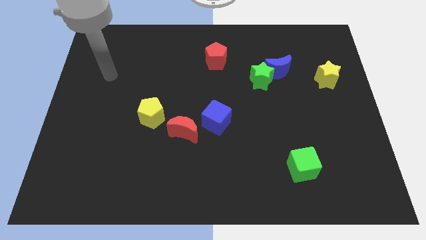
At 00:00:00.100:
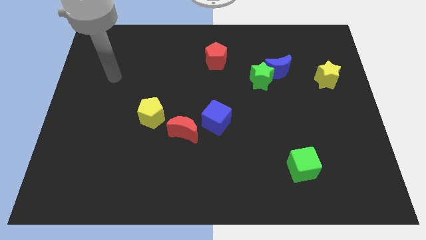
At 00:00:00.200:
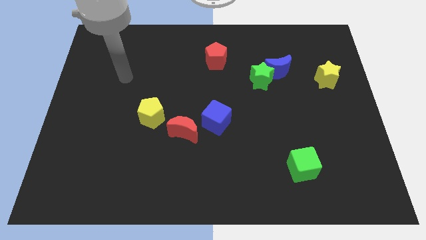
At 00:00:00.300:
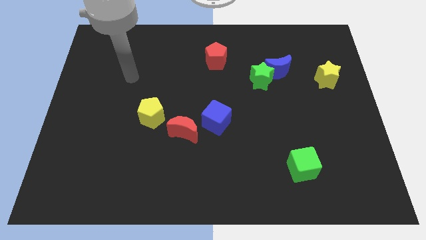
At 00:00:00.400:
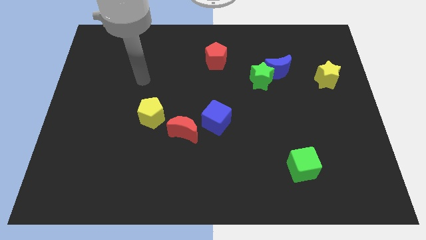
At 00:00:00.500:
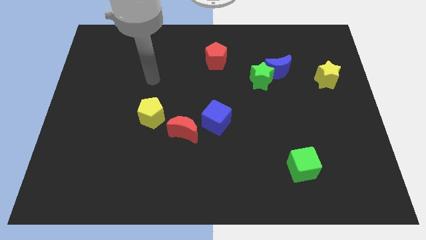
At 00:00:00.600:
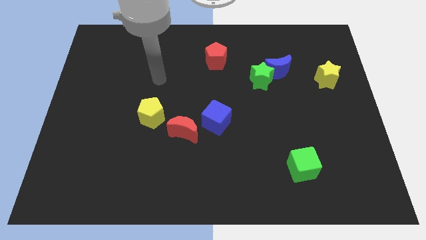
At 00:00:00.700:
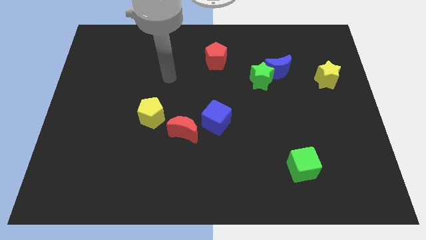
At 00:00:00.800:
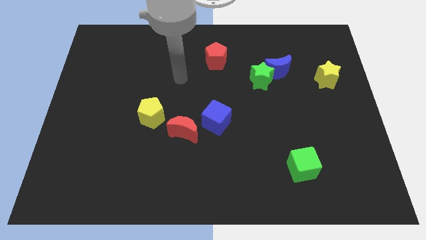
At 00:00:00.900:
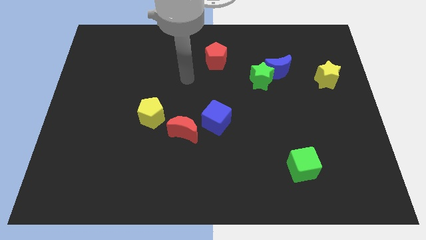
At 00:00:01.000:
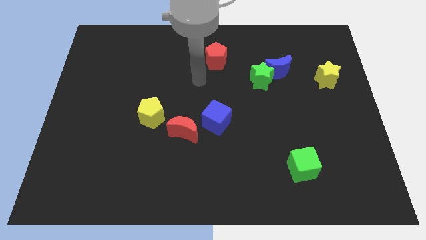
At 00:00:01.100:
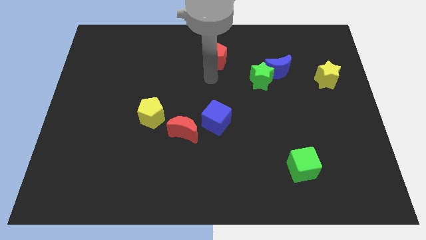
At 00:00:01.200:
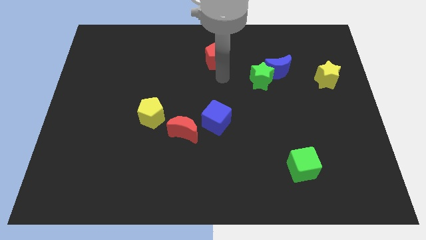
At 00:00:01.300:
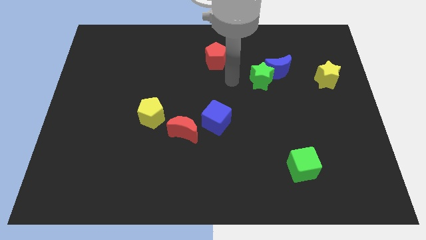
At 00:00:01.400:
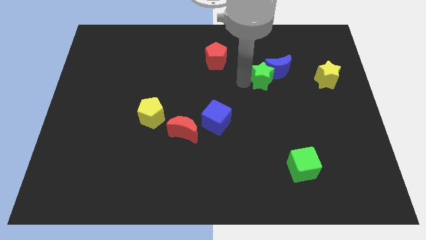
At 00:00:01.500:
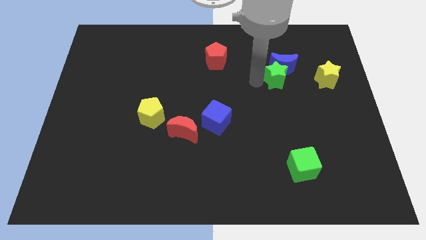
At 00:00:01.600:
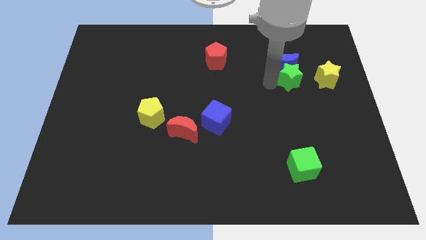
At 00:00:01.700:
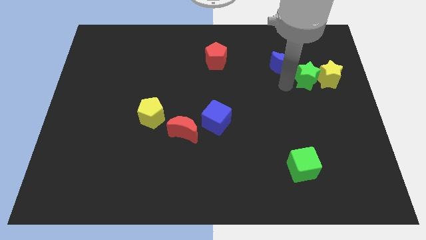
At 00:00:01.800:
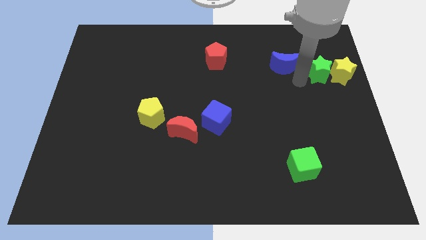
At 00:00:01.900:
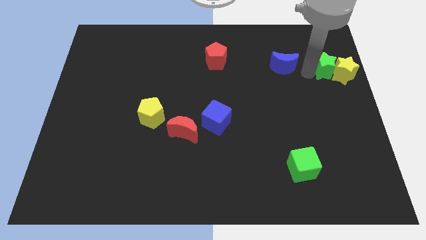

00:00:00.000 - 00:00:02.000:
pull the blue moon apart from the green star

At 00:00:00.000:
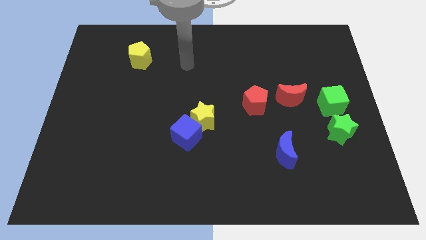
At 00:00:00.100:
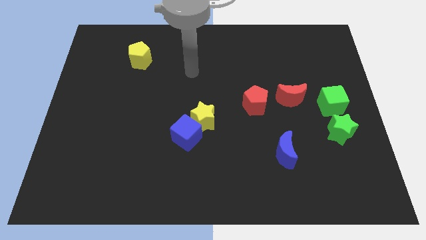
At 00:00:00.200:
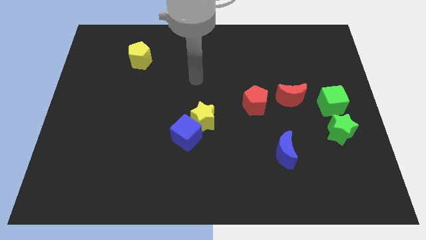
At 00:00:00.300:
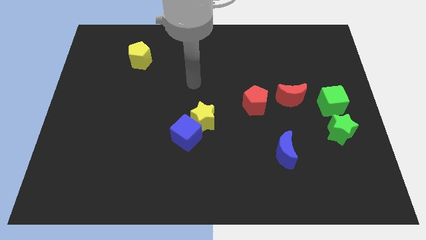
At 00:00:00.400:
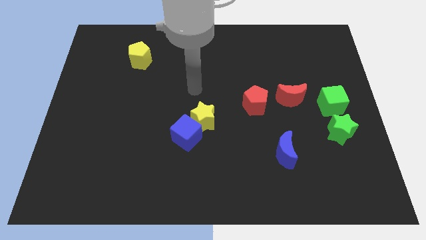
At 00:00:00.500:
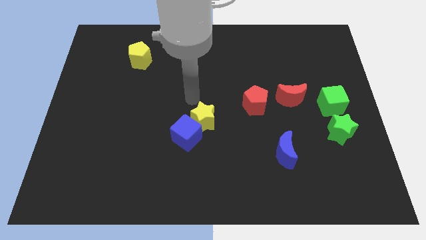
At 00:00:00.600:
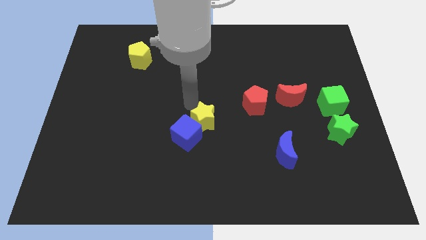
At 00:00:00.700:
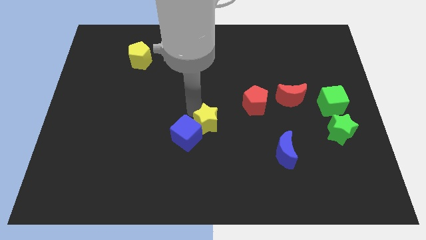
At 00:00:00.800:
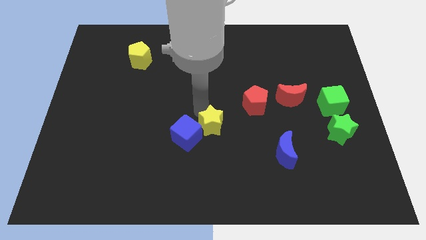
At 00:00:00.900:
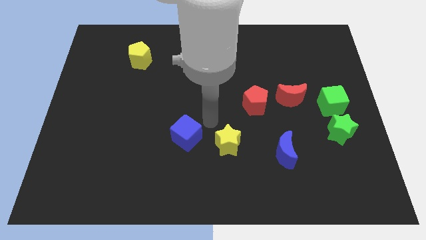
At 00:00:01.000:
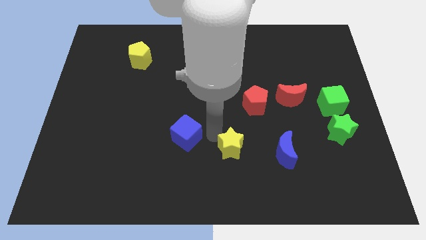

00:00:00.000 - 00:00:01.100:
move the blue cube away from the yellow star

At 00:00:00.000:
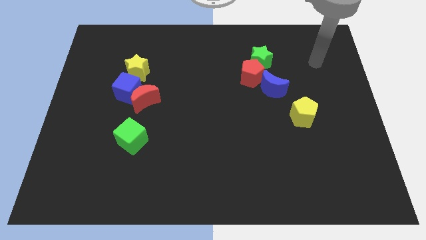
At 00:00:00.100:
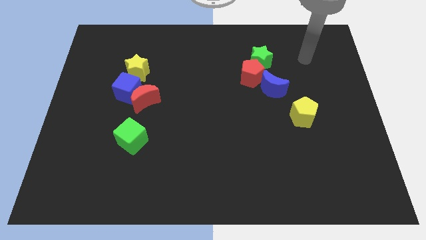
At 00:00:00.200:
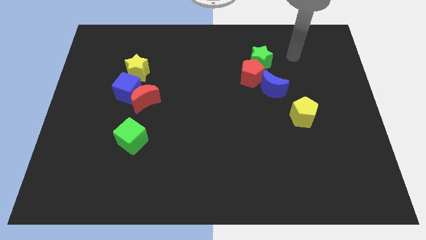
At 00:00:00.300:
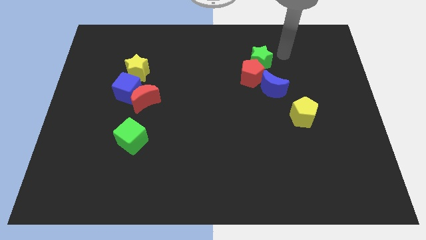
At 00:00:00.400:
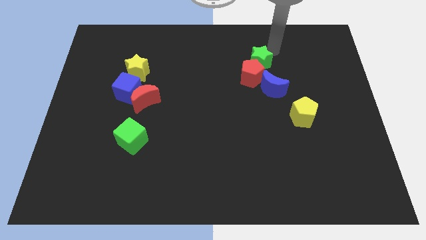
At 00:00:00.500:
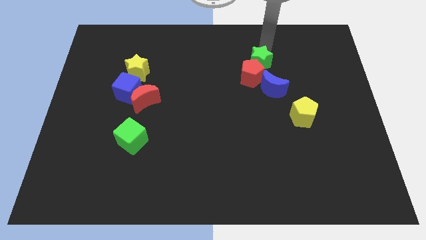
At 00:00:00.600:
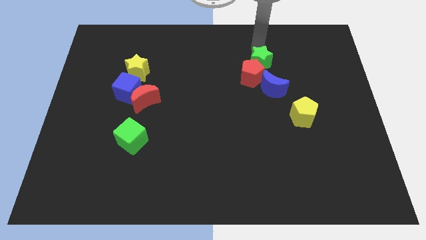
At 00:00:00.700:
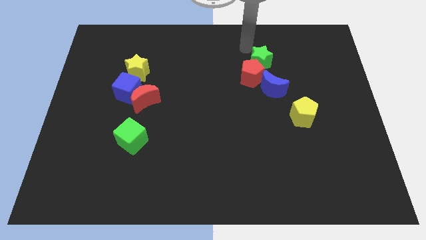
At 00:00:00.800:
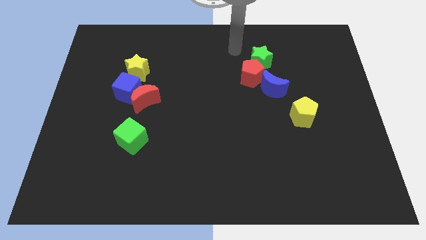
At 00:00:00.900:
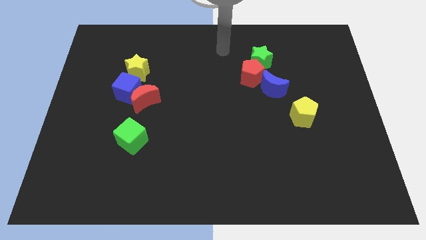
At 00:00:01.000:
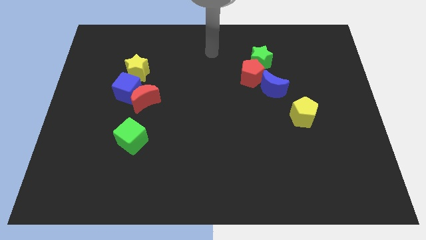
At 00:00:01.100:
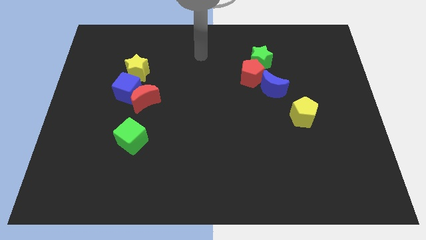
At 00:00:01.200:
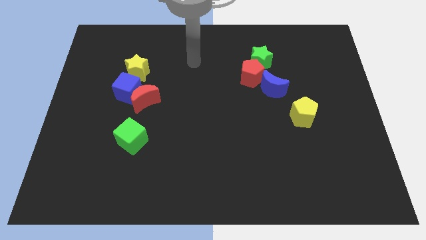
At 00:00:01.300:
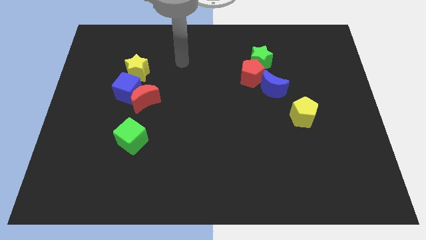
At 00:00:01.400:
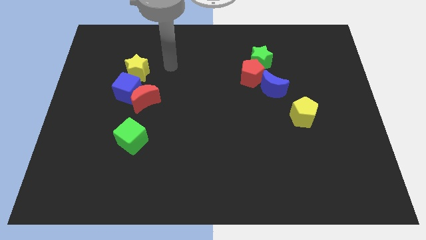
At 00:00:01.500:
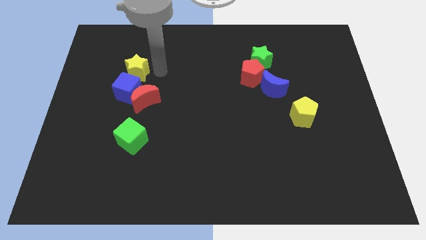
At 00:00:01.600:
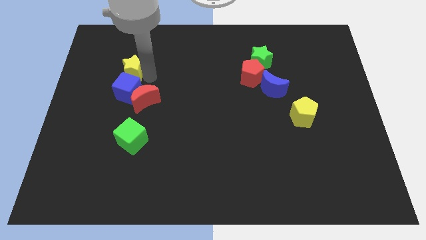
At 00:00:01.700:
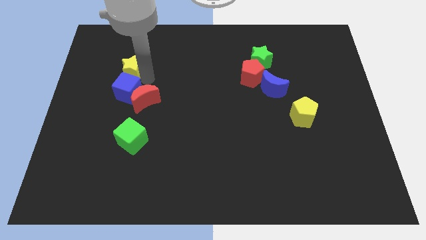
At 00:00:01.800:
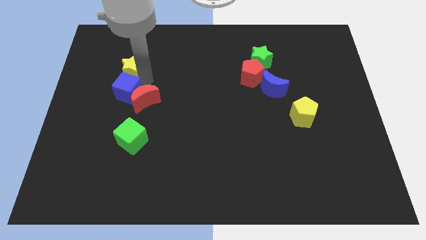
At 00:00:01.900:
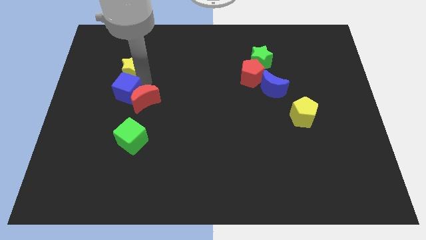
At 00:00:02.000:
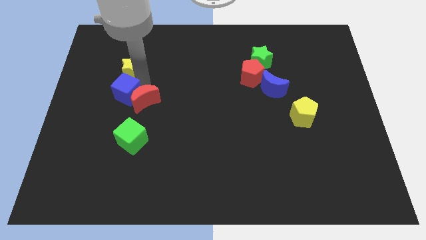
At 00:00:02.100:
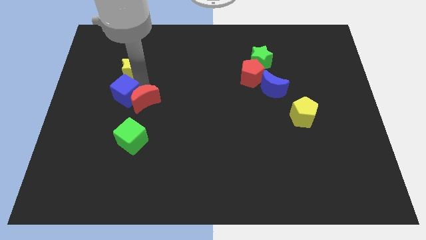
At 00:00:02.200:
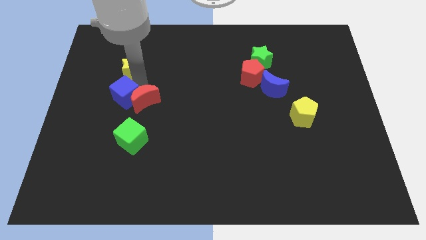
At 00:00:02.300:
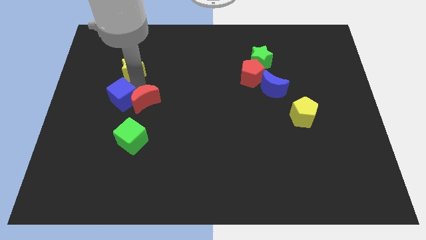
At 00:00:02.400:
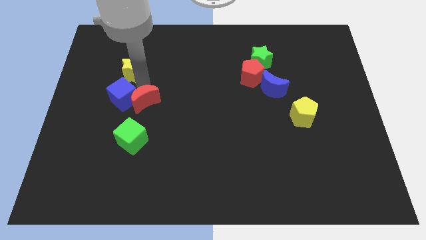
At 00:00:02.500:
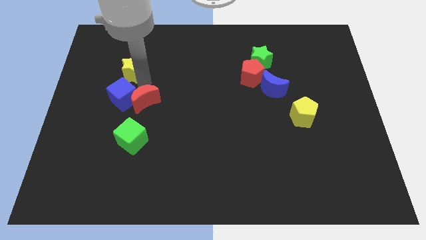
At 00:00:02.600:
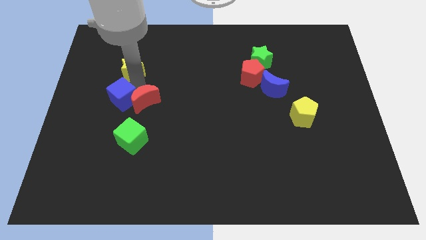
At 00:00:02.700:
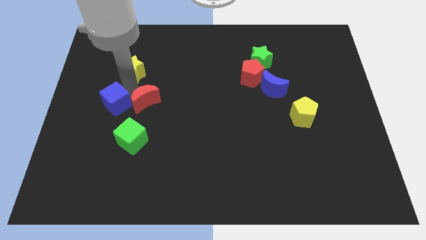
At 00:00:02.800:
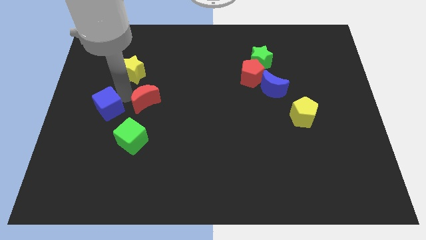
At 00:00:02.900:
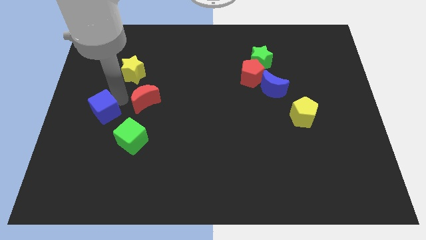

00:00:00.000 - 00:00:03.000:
move the blue cube away from the red moon and yellow star

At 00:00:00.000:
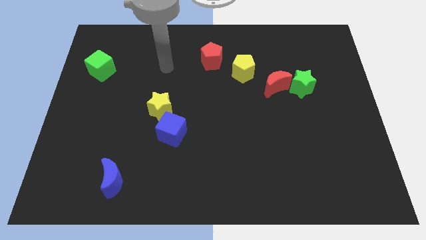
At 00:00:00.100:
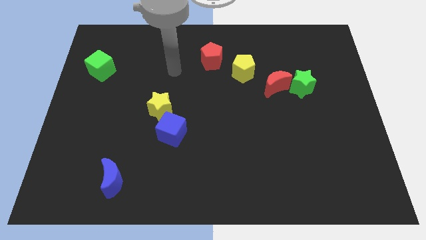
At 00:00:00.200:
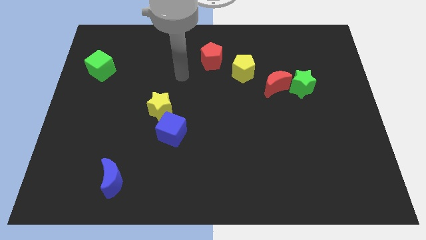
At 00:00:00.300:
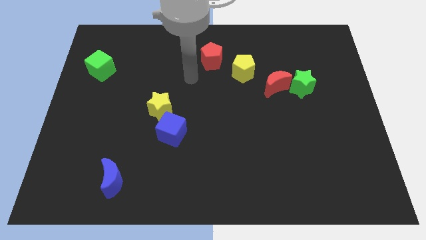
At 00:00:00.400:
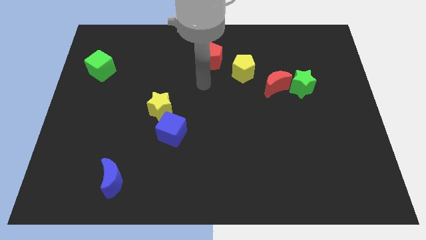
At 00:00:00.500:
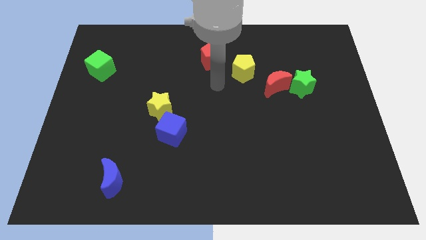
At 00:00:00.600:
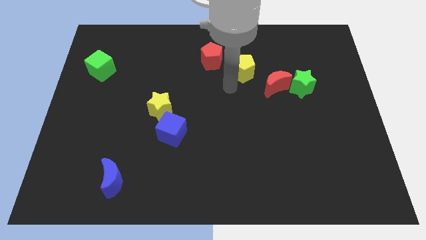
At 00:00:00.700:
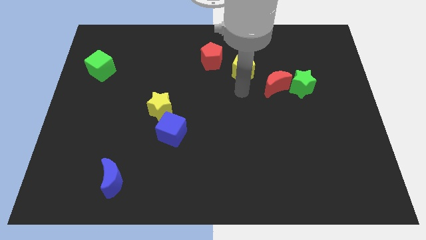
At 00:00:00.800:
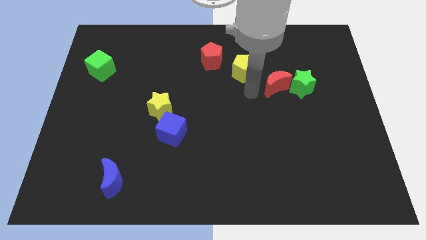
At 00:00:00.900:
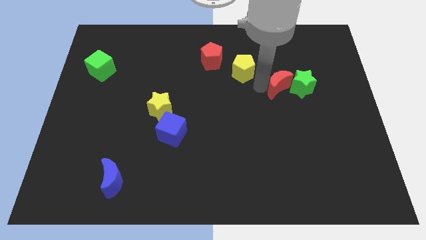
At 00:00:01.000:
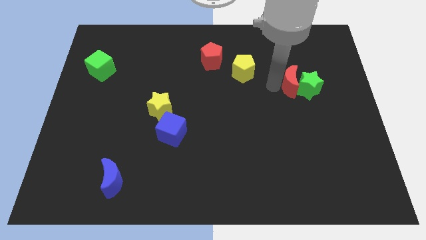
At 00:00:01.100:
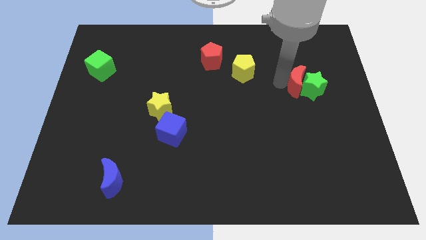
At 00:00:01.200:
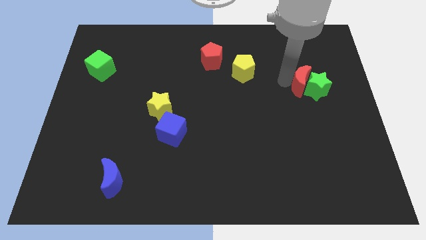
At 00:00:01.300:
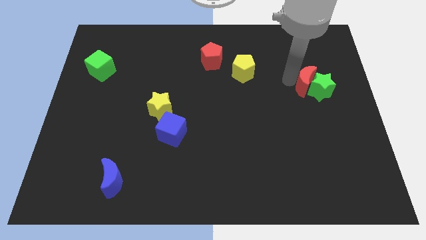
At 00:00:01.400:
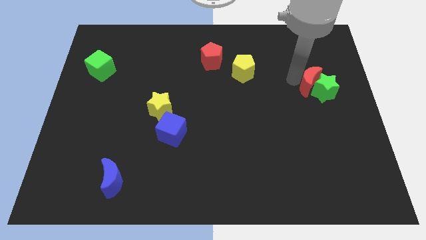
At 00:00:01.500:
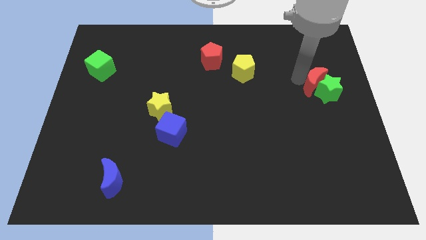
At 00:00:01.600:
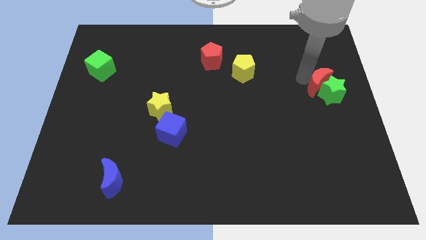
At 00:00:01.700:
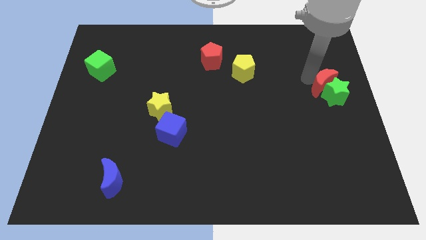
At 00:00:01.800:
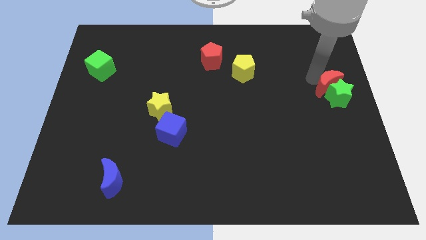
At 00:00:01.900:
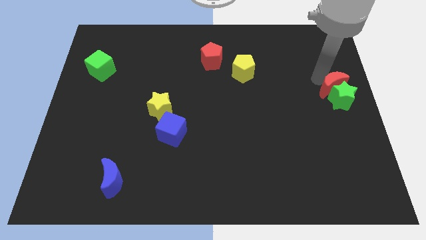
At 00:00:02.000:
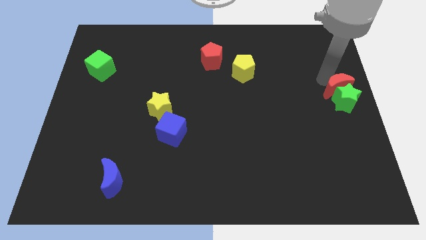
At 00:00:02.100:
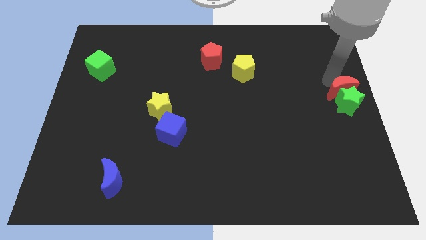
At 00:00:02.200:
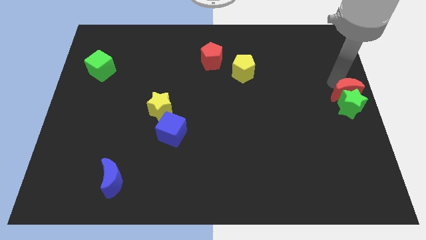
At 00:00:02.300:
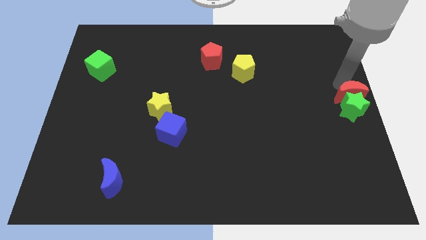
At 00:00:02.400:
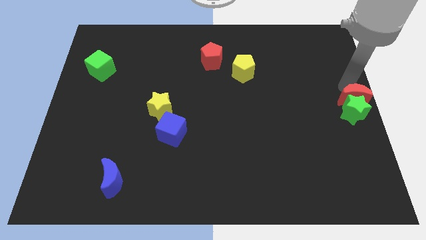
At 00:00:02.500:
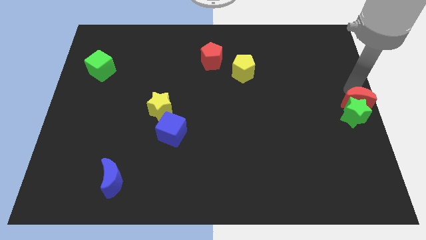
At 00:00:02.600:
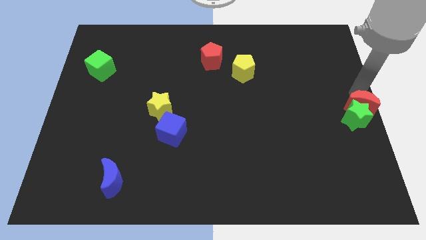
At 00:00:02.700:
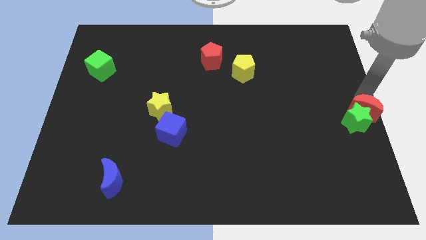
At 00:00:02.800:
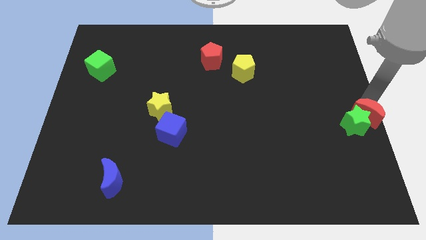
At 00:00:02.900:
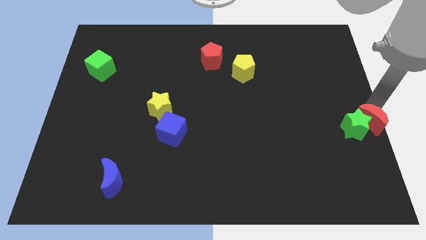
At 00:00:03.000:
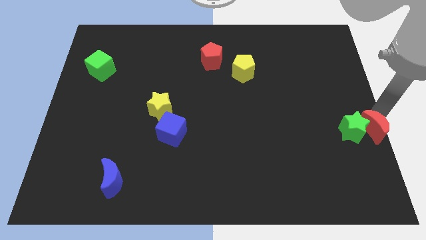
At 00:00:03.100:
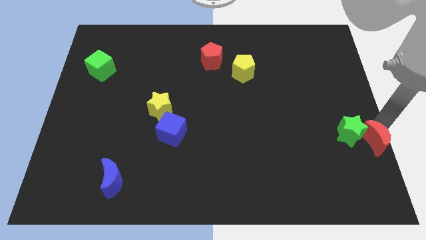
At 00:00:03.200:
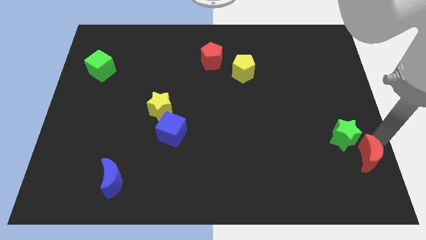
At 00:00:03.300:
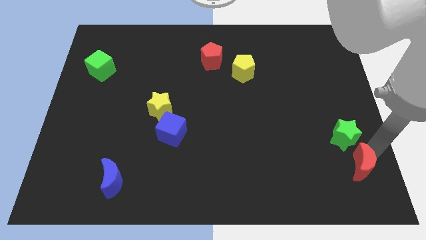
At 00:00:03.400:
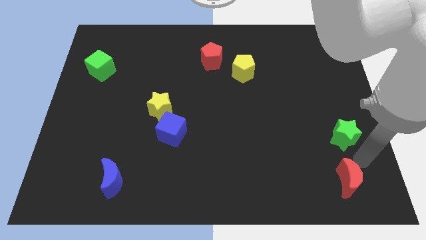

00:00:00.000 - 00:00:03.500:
move the green star away from the red moon
